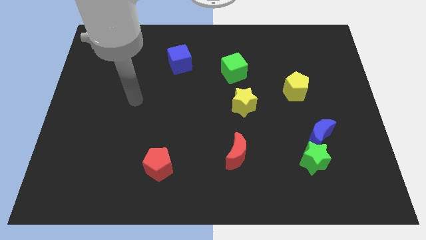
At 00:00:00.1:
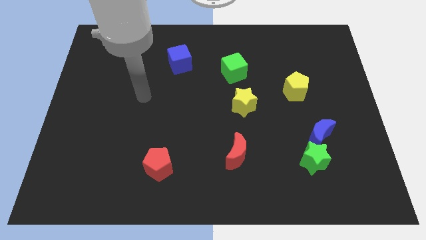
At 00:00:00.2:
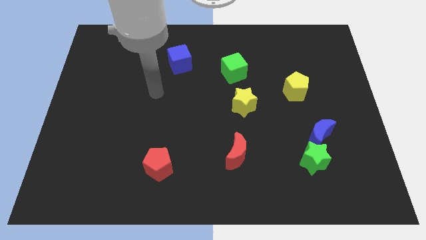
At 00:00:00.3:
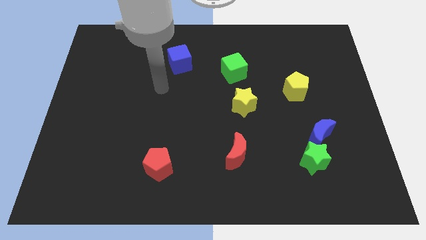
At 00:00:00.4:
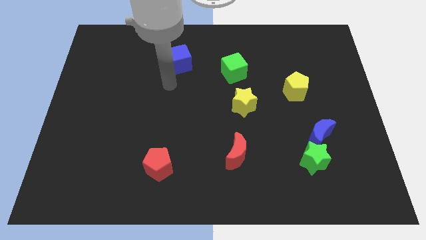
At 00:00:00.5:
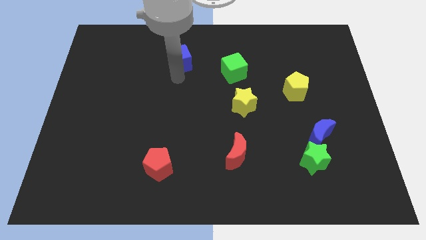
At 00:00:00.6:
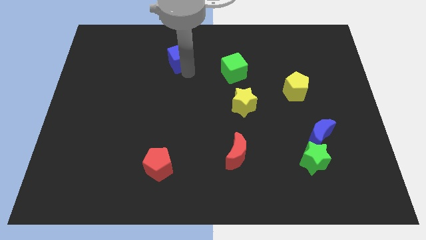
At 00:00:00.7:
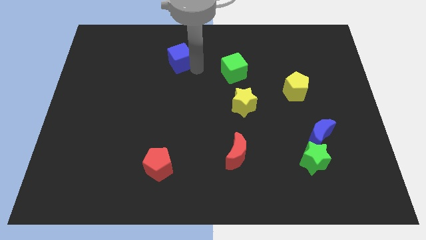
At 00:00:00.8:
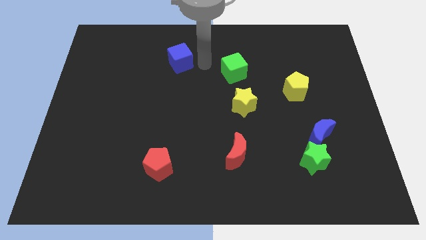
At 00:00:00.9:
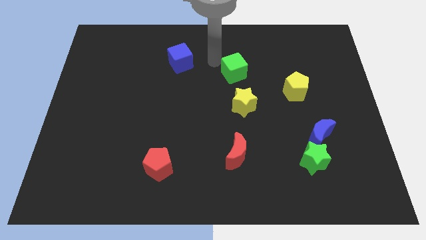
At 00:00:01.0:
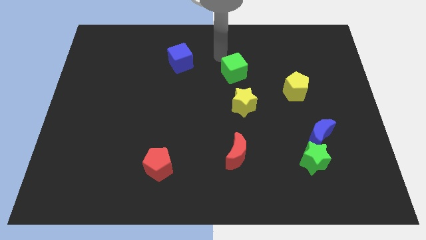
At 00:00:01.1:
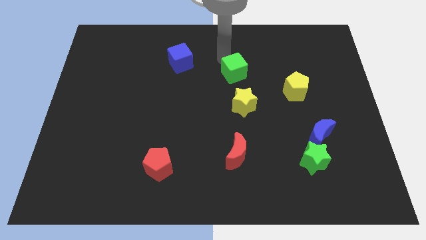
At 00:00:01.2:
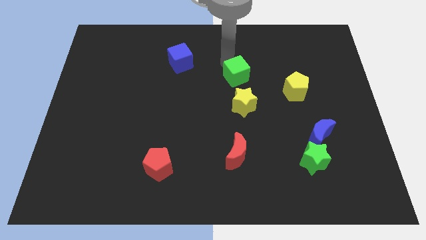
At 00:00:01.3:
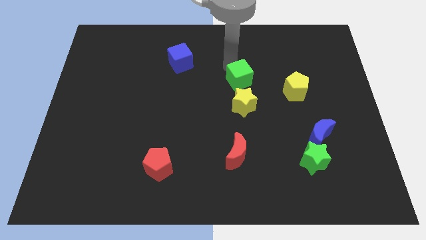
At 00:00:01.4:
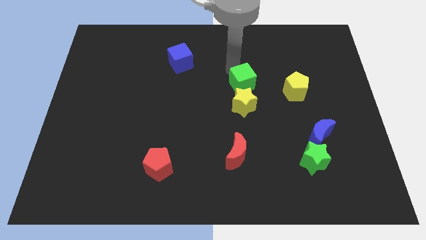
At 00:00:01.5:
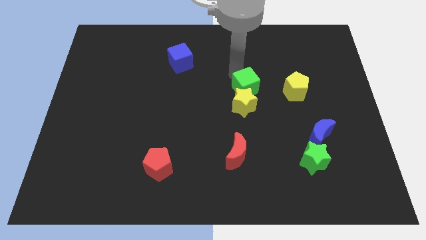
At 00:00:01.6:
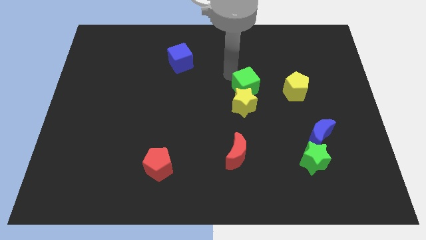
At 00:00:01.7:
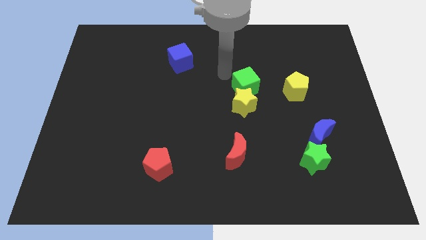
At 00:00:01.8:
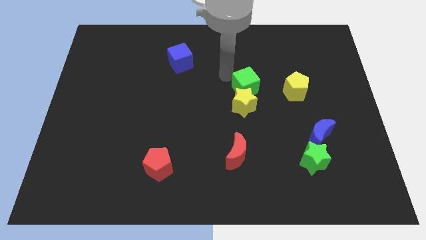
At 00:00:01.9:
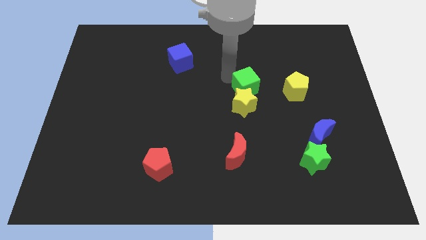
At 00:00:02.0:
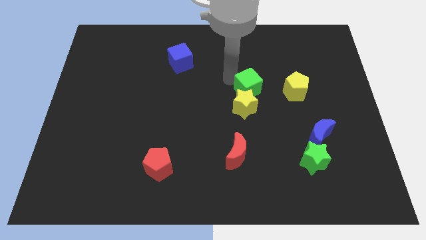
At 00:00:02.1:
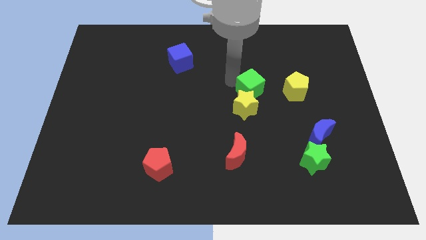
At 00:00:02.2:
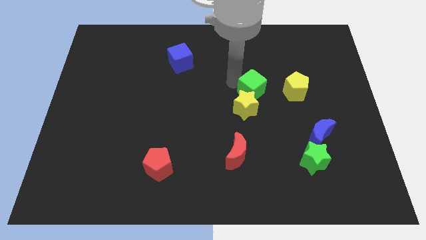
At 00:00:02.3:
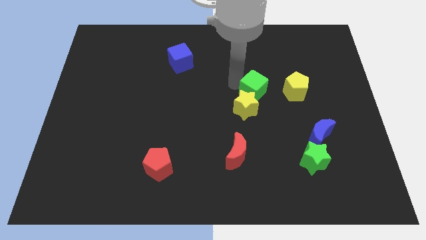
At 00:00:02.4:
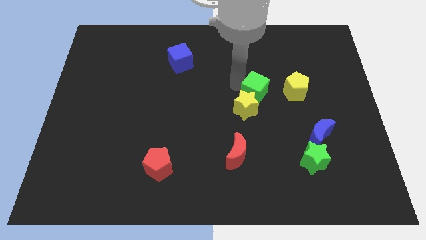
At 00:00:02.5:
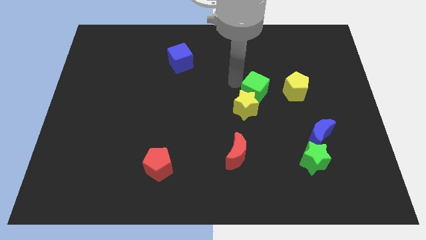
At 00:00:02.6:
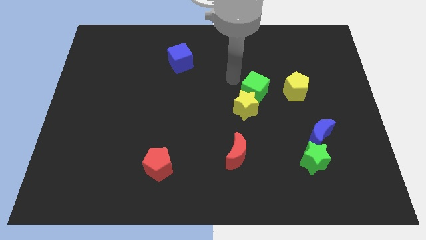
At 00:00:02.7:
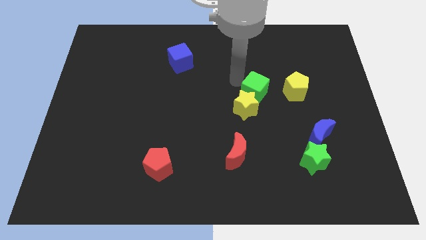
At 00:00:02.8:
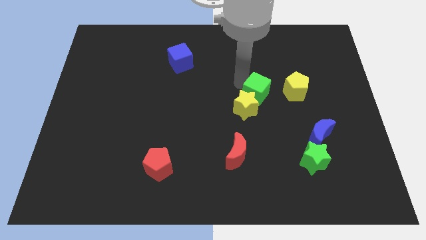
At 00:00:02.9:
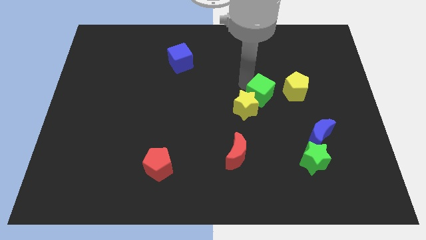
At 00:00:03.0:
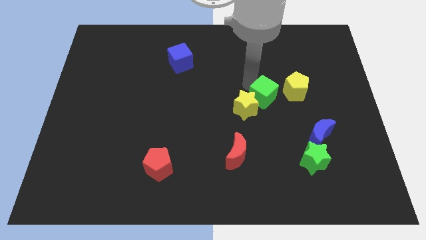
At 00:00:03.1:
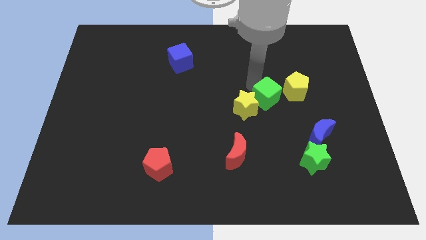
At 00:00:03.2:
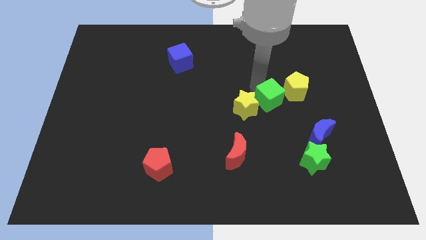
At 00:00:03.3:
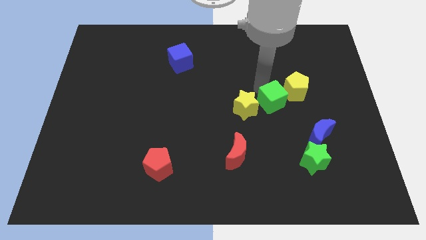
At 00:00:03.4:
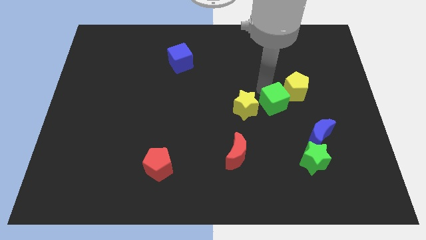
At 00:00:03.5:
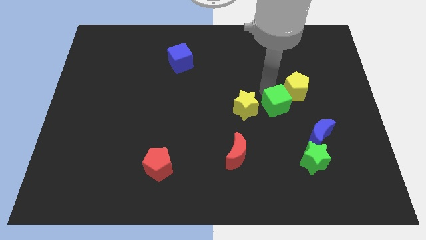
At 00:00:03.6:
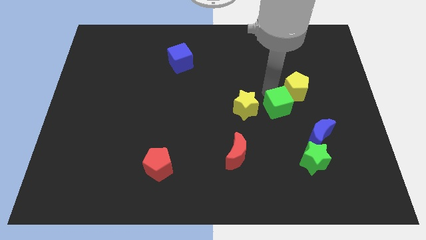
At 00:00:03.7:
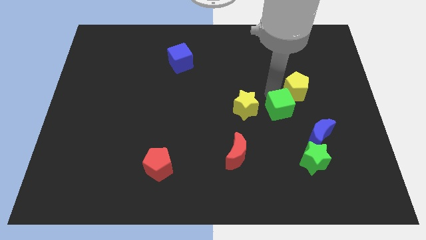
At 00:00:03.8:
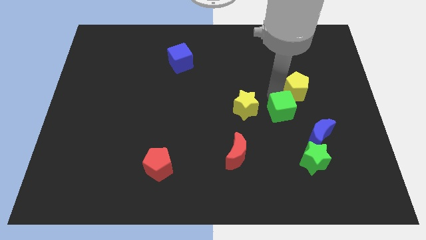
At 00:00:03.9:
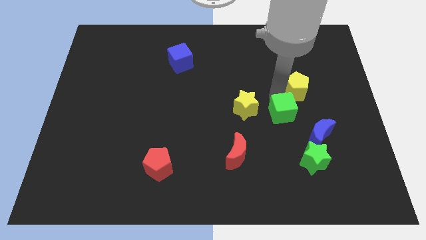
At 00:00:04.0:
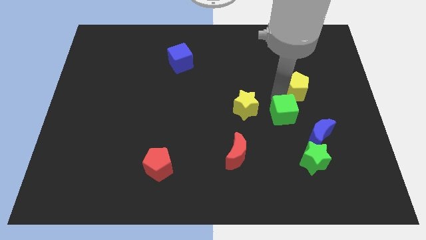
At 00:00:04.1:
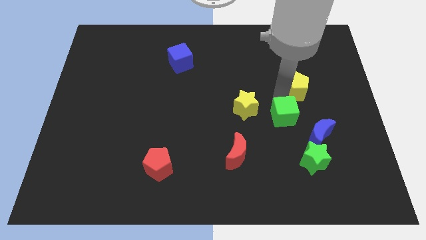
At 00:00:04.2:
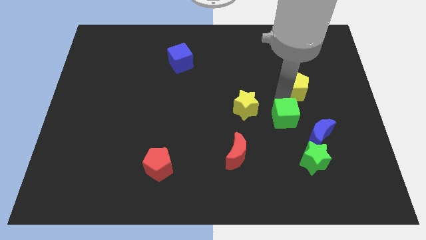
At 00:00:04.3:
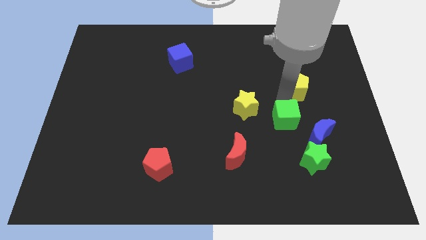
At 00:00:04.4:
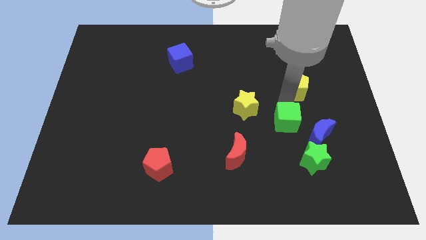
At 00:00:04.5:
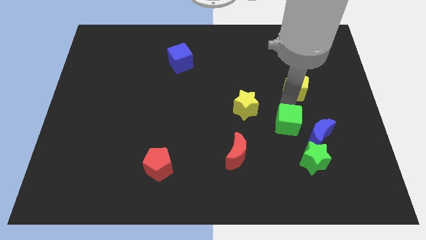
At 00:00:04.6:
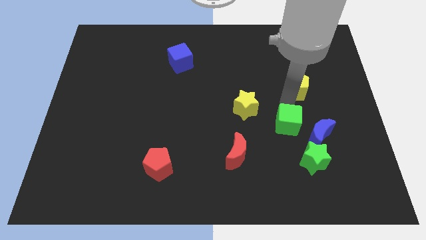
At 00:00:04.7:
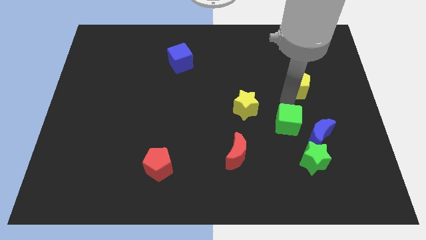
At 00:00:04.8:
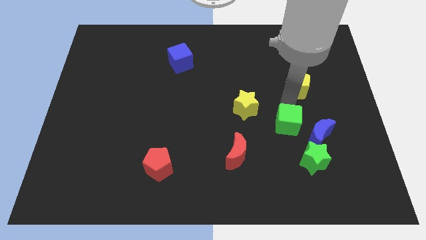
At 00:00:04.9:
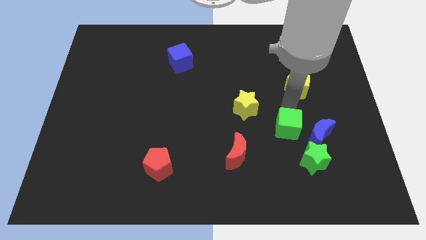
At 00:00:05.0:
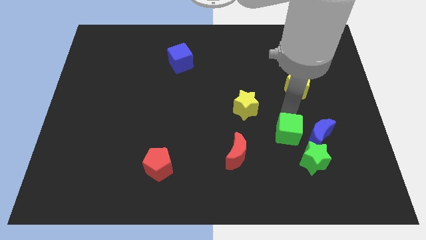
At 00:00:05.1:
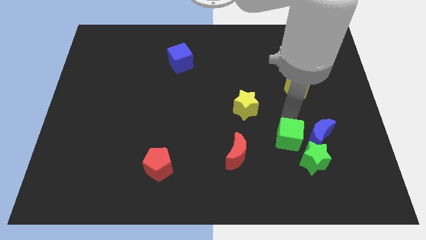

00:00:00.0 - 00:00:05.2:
push the green cube diagonally down and to the left of the blue moon

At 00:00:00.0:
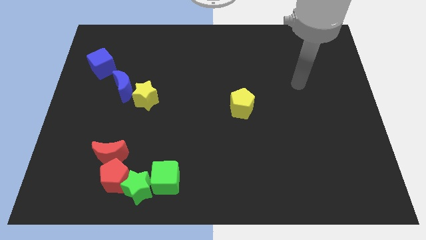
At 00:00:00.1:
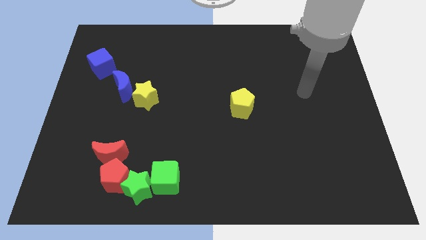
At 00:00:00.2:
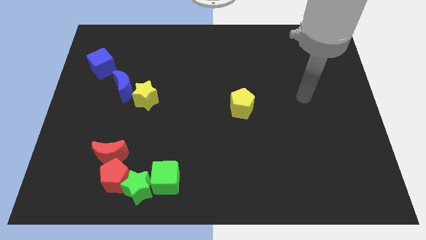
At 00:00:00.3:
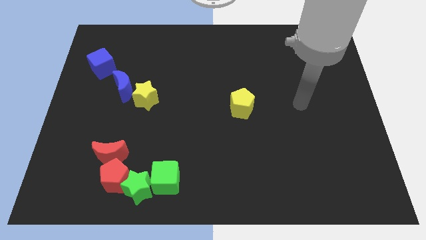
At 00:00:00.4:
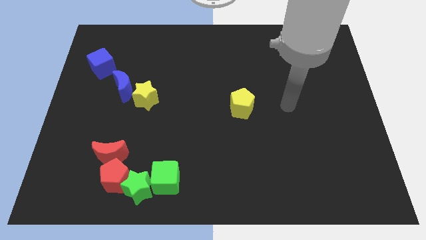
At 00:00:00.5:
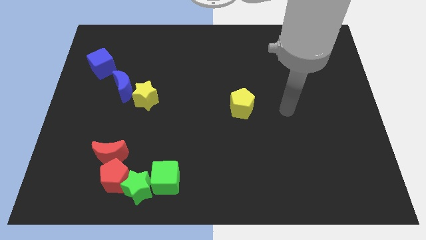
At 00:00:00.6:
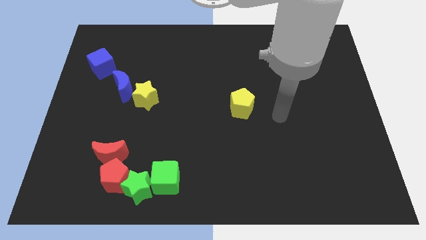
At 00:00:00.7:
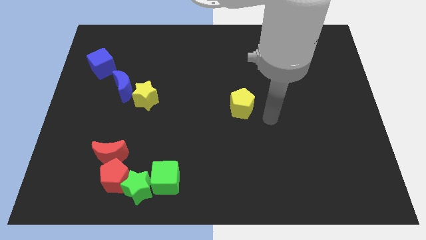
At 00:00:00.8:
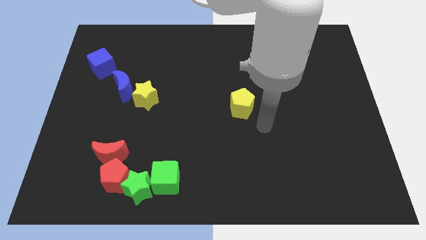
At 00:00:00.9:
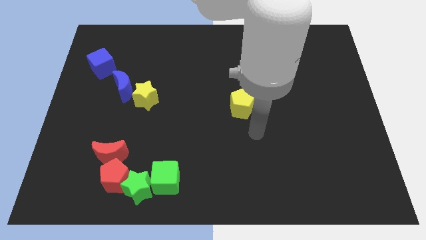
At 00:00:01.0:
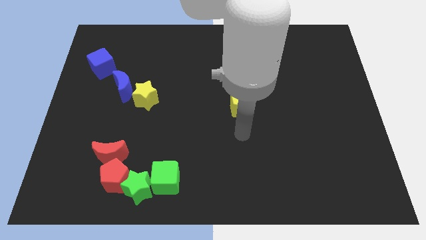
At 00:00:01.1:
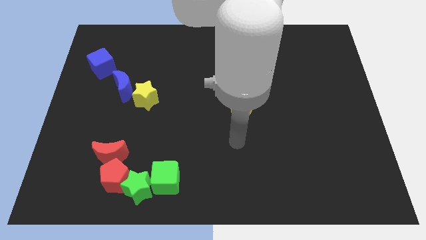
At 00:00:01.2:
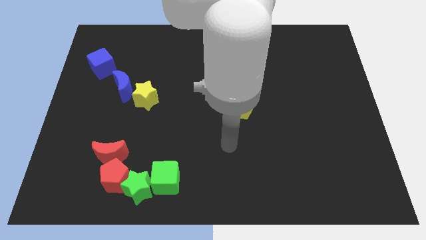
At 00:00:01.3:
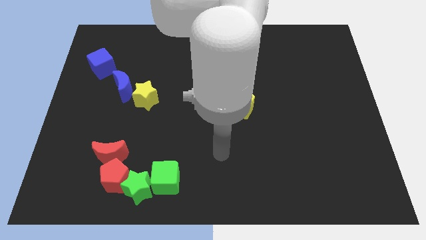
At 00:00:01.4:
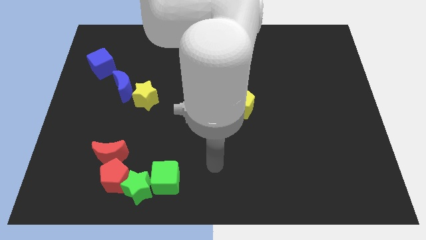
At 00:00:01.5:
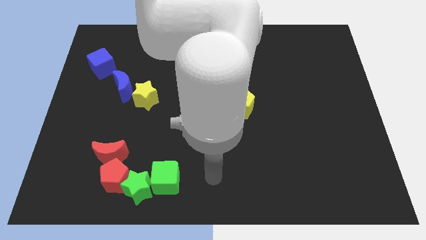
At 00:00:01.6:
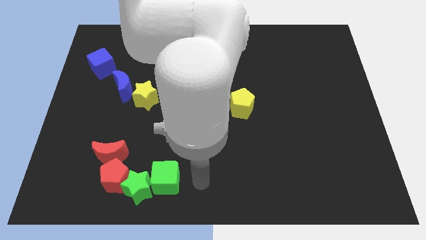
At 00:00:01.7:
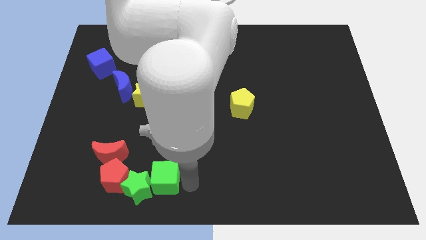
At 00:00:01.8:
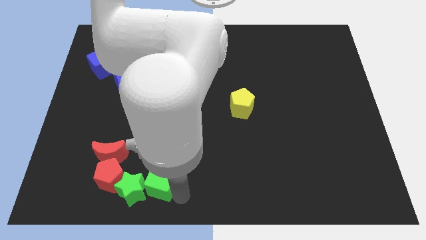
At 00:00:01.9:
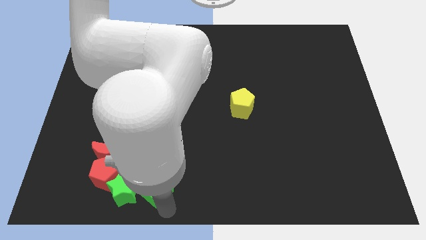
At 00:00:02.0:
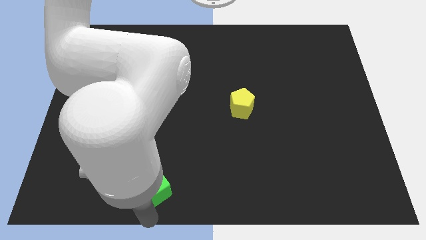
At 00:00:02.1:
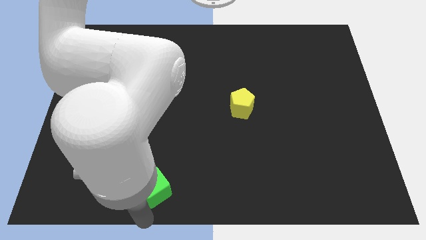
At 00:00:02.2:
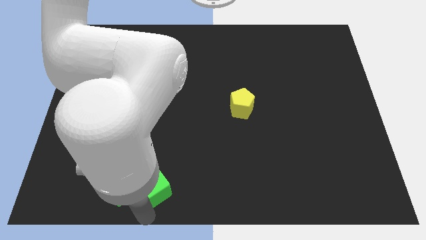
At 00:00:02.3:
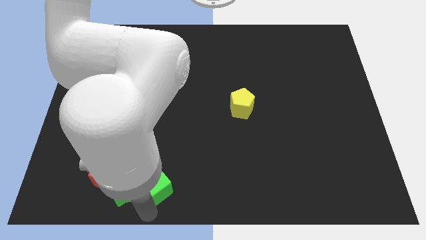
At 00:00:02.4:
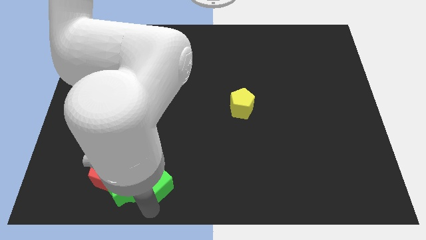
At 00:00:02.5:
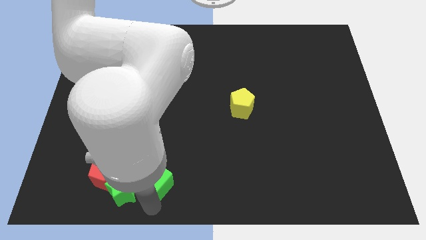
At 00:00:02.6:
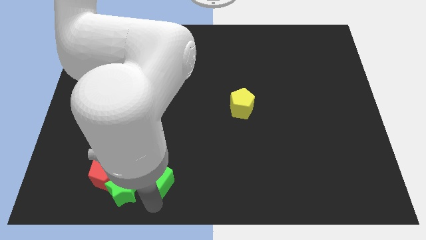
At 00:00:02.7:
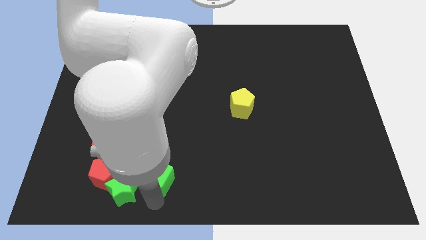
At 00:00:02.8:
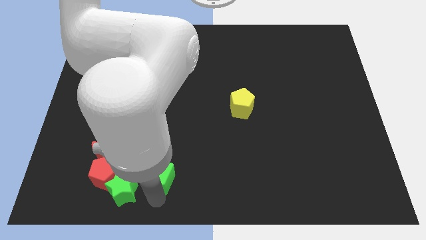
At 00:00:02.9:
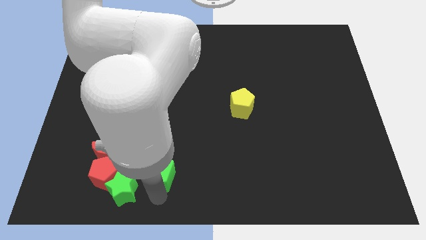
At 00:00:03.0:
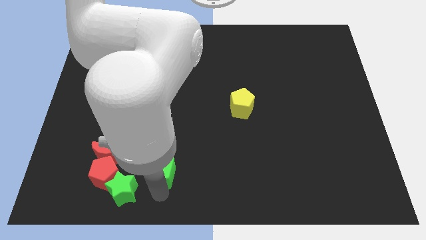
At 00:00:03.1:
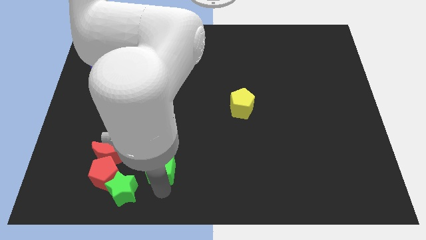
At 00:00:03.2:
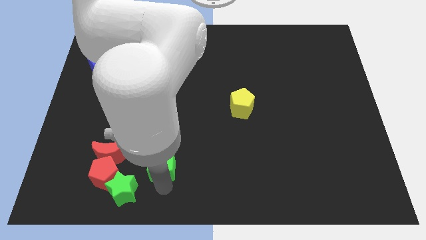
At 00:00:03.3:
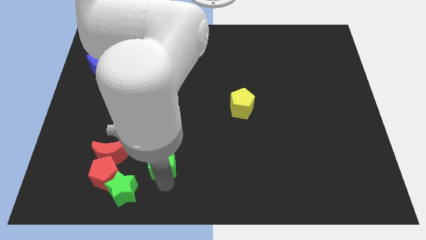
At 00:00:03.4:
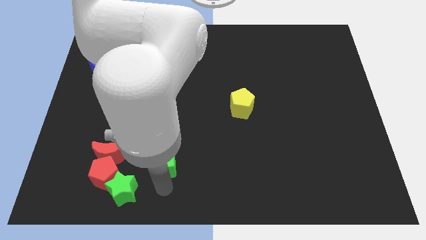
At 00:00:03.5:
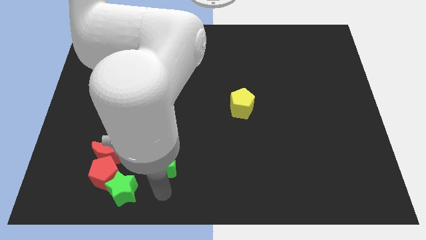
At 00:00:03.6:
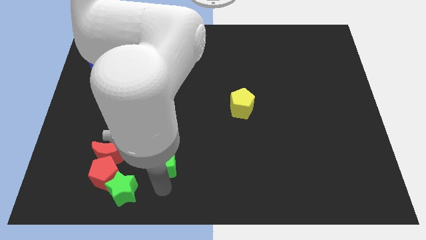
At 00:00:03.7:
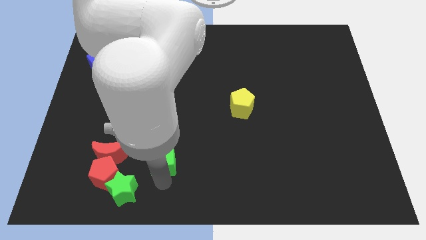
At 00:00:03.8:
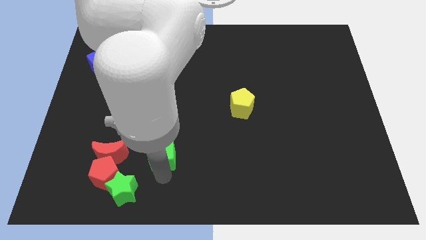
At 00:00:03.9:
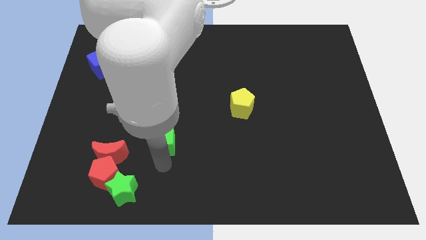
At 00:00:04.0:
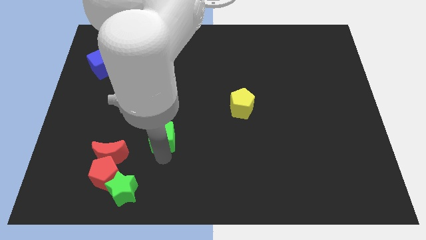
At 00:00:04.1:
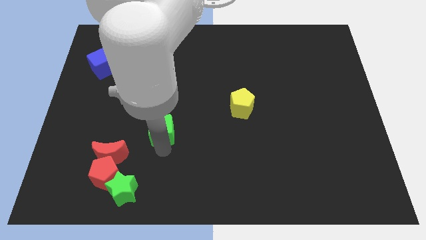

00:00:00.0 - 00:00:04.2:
slide the green cube to the bottom right side of the yellow star
